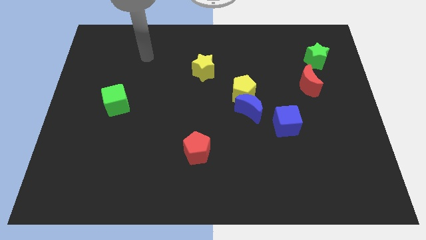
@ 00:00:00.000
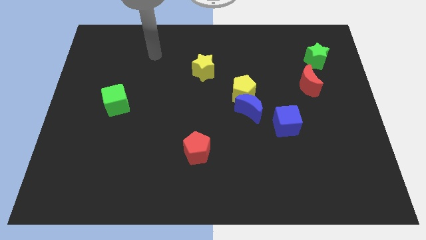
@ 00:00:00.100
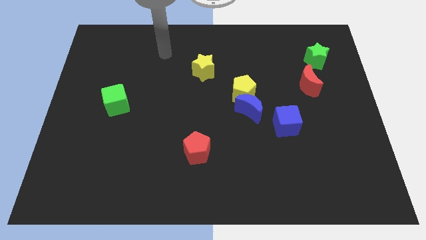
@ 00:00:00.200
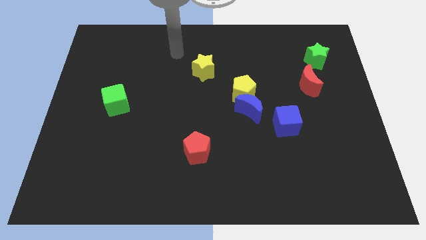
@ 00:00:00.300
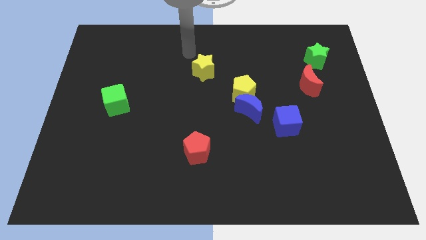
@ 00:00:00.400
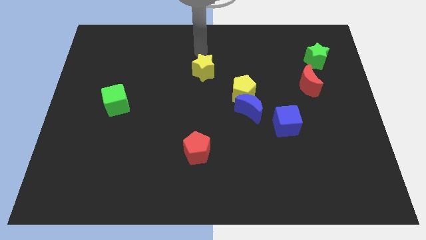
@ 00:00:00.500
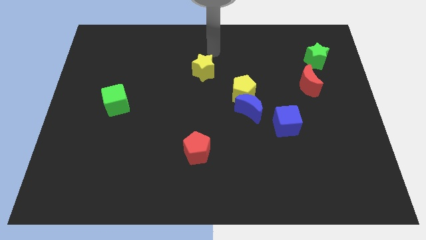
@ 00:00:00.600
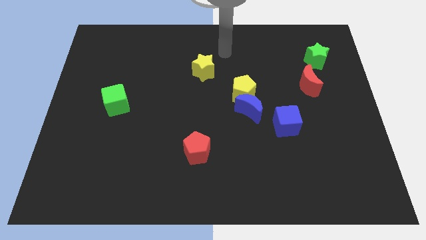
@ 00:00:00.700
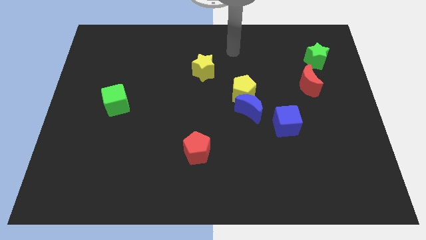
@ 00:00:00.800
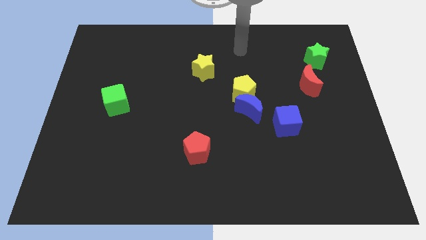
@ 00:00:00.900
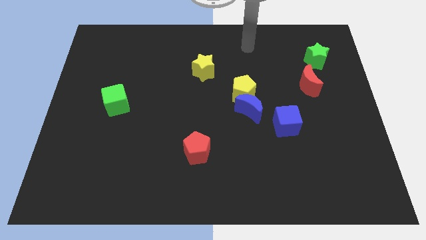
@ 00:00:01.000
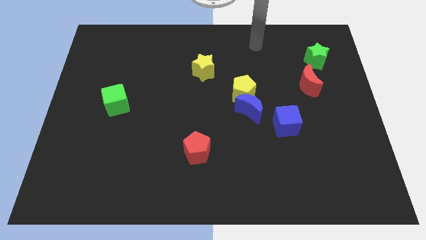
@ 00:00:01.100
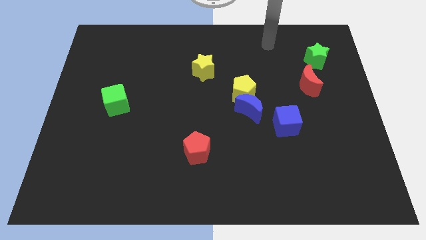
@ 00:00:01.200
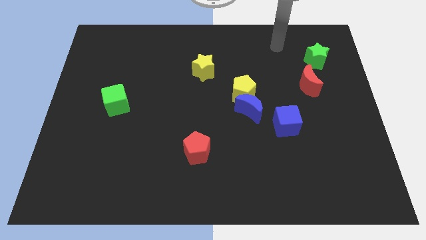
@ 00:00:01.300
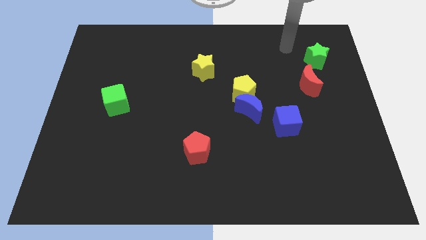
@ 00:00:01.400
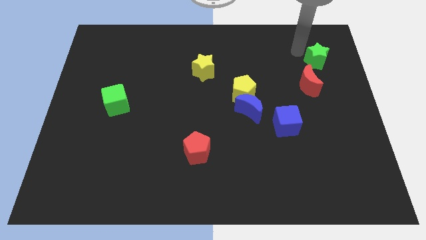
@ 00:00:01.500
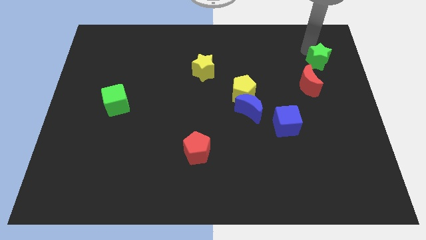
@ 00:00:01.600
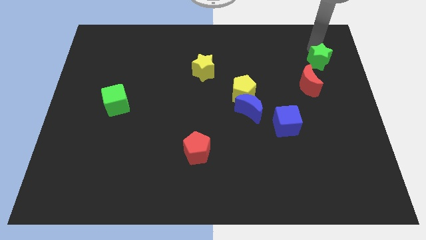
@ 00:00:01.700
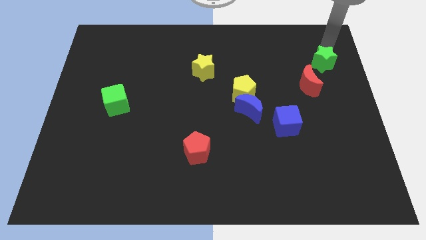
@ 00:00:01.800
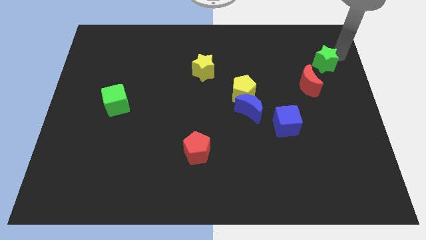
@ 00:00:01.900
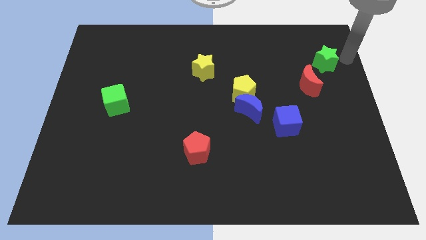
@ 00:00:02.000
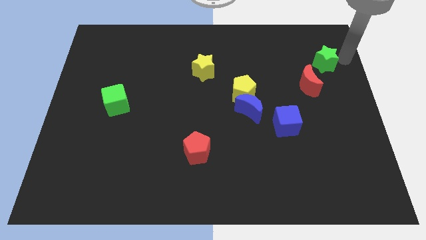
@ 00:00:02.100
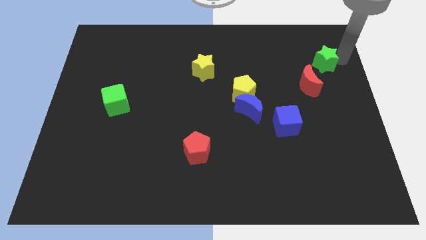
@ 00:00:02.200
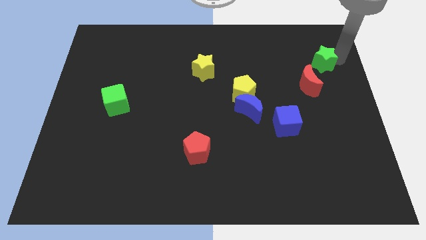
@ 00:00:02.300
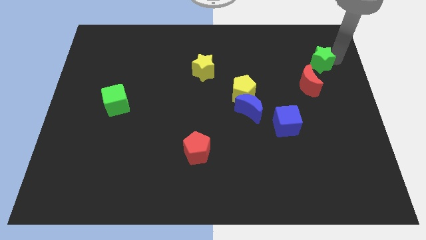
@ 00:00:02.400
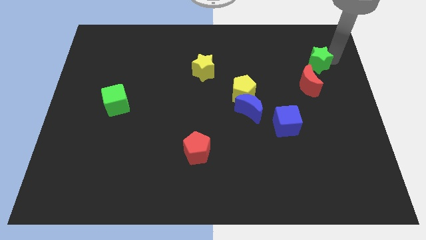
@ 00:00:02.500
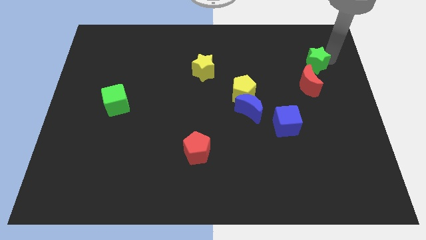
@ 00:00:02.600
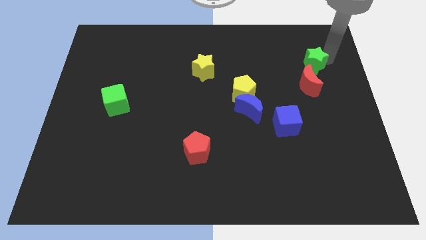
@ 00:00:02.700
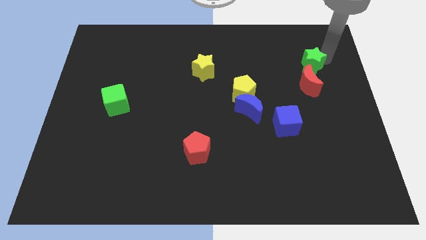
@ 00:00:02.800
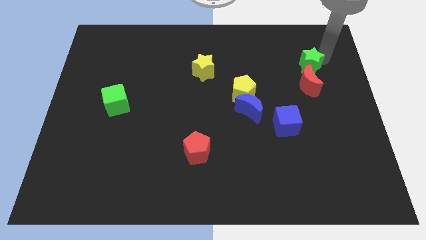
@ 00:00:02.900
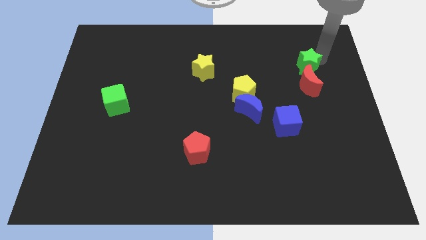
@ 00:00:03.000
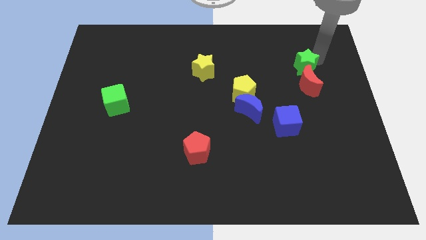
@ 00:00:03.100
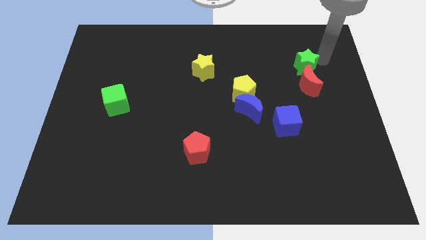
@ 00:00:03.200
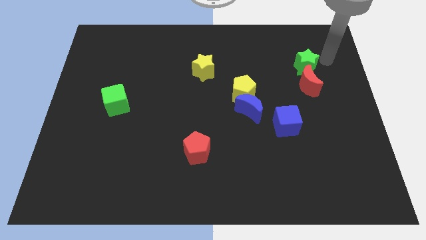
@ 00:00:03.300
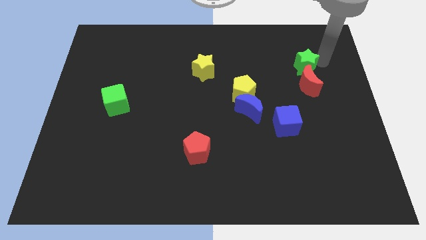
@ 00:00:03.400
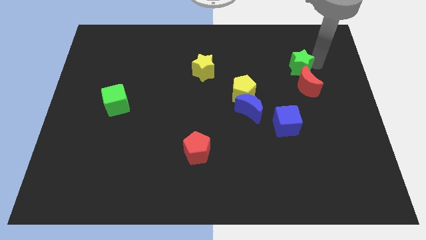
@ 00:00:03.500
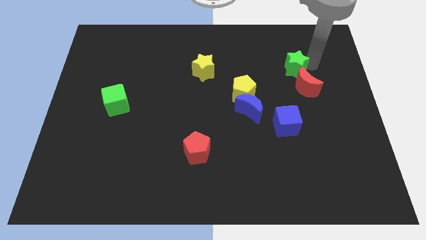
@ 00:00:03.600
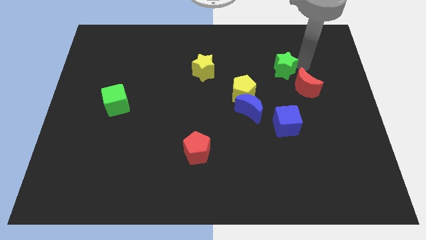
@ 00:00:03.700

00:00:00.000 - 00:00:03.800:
move the green star downwards and left slightly

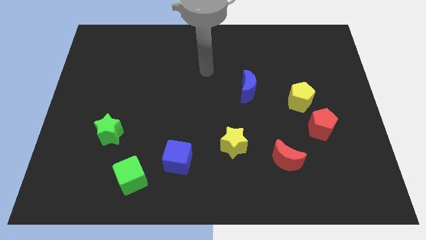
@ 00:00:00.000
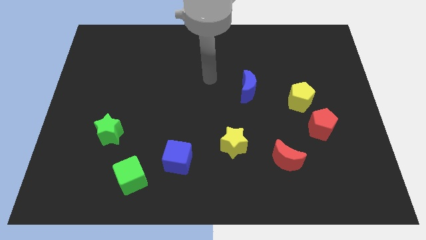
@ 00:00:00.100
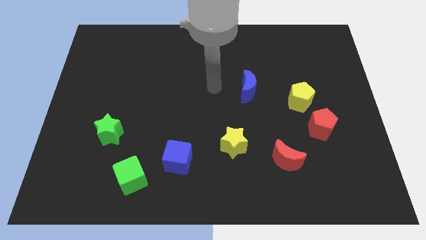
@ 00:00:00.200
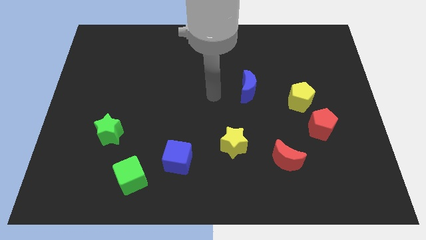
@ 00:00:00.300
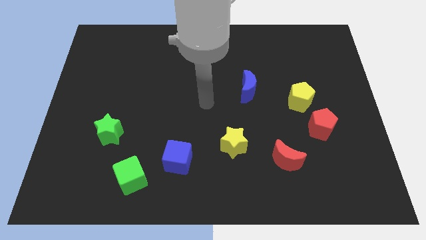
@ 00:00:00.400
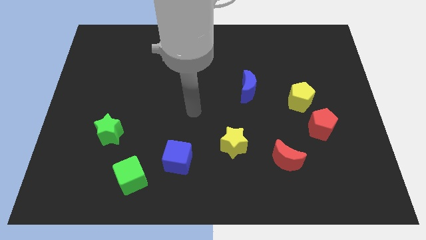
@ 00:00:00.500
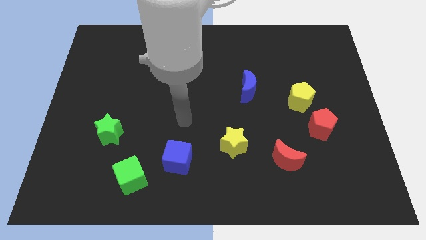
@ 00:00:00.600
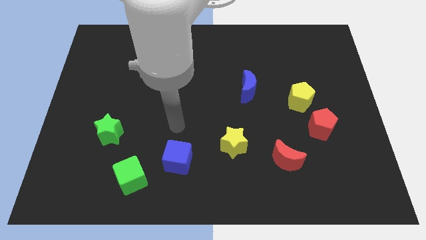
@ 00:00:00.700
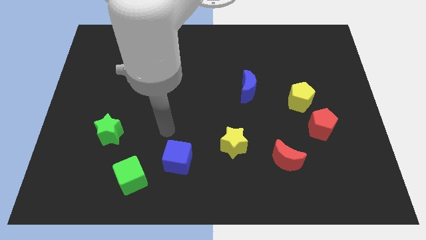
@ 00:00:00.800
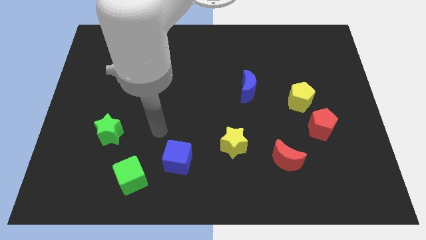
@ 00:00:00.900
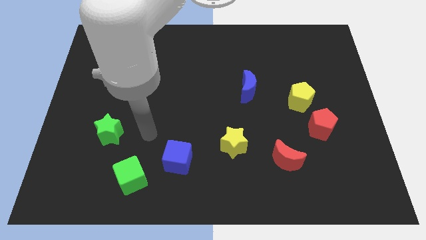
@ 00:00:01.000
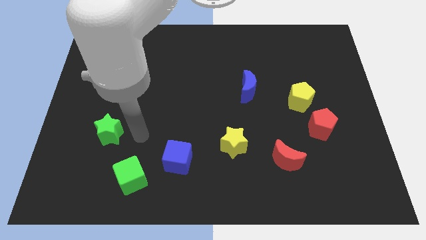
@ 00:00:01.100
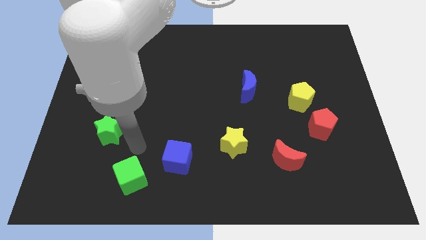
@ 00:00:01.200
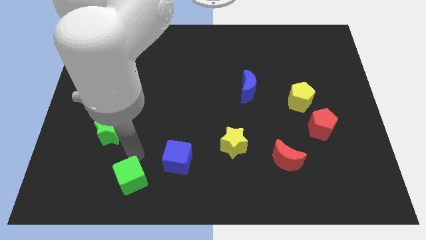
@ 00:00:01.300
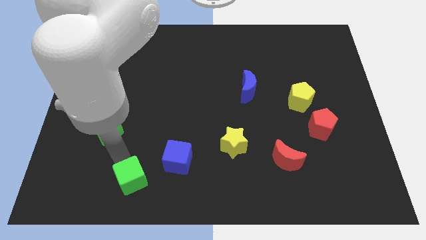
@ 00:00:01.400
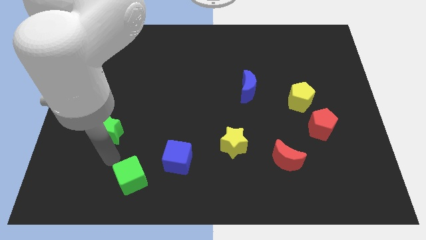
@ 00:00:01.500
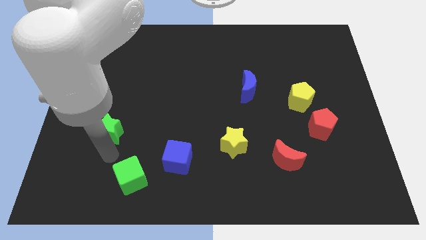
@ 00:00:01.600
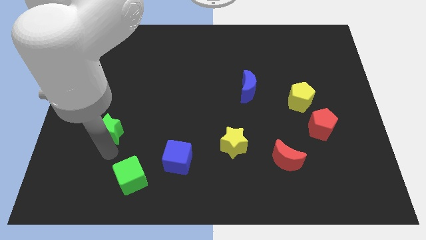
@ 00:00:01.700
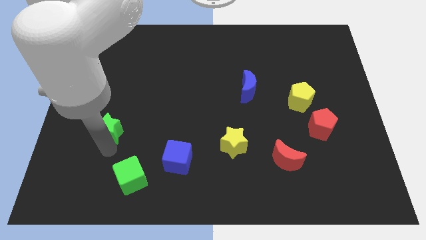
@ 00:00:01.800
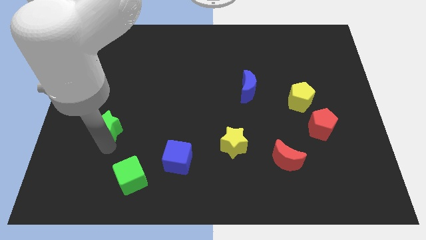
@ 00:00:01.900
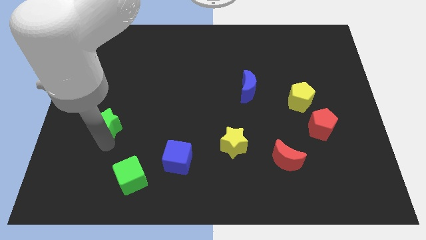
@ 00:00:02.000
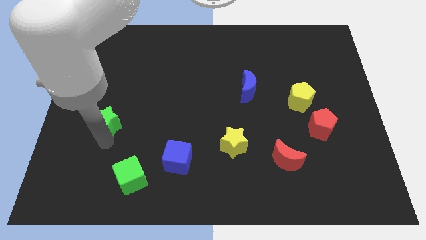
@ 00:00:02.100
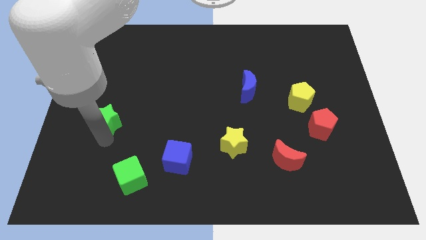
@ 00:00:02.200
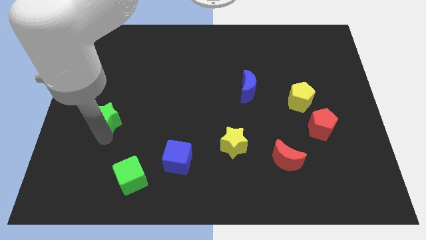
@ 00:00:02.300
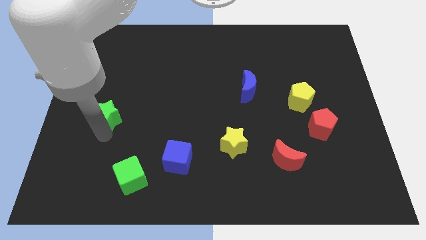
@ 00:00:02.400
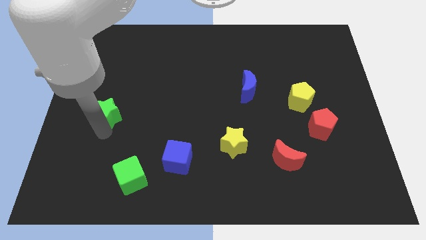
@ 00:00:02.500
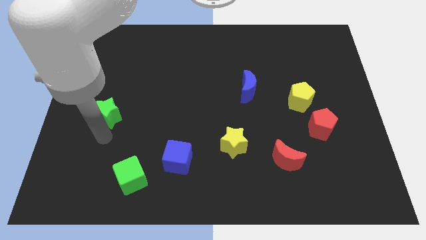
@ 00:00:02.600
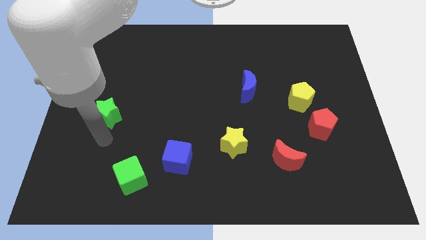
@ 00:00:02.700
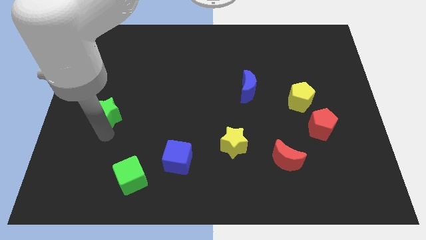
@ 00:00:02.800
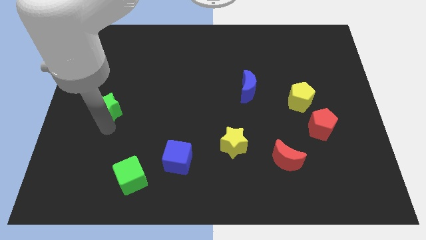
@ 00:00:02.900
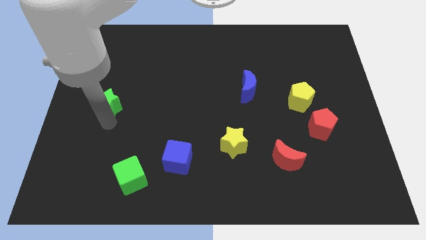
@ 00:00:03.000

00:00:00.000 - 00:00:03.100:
slightly move the green star up

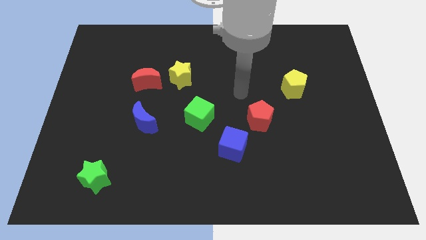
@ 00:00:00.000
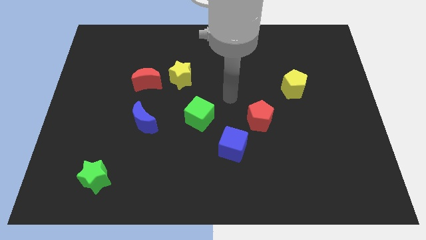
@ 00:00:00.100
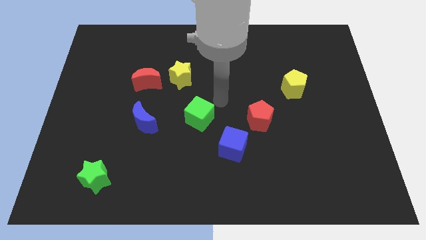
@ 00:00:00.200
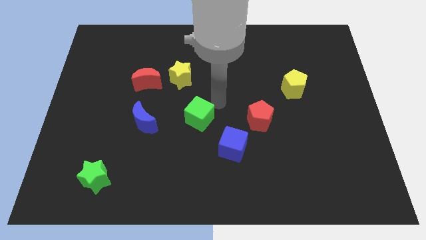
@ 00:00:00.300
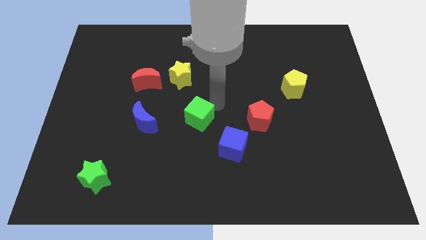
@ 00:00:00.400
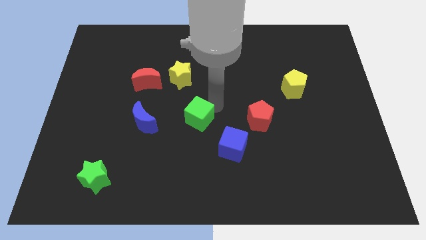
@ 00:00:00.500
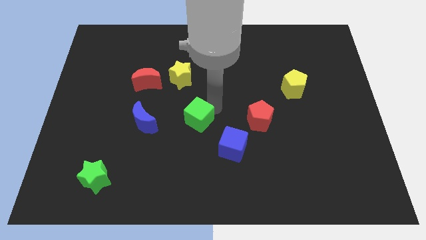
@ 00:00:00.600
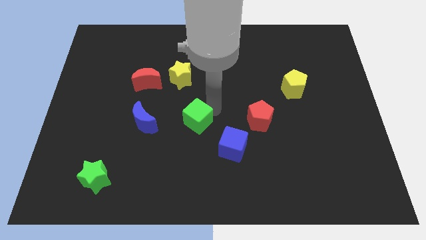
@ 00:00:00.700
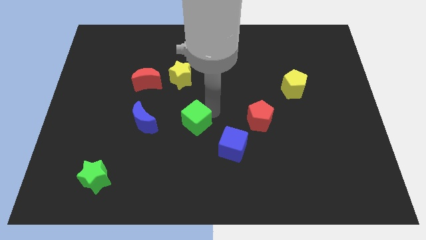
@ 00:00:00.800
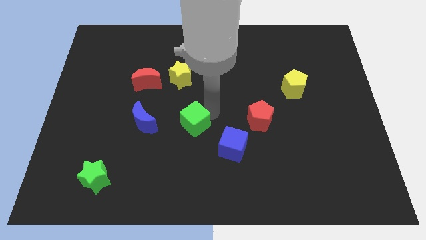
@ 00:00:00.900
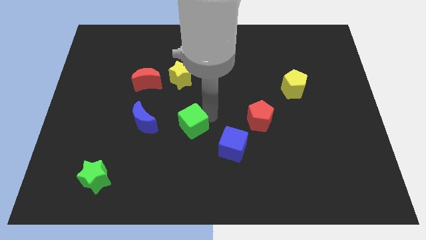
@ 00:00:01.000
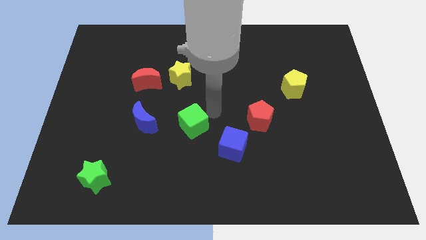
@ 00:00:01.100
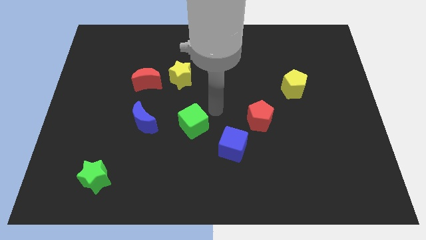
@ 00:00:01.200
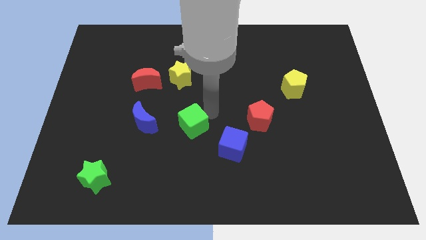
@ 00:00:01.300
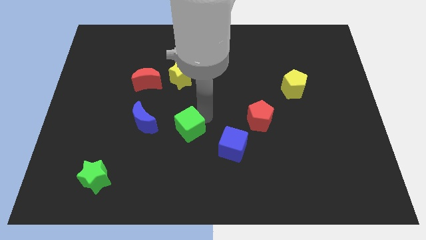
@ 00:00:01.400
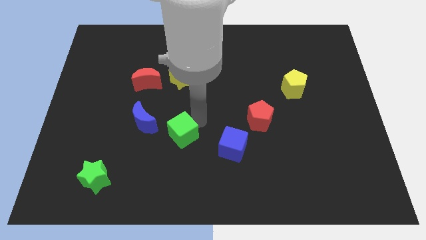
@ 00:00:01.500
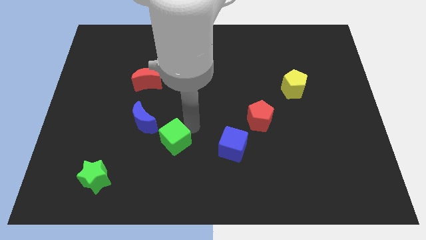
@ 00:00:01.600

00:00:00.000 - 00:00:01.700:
move the green cube downwards and left somewhat
